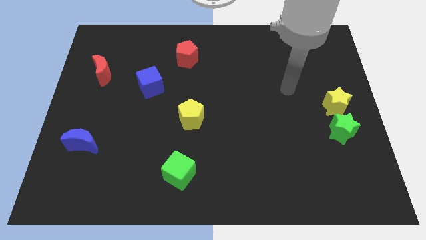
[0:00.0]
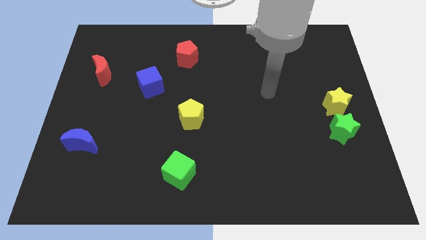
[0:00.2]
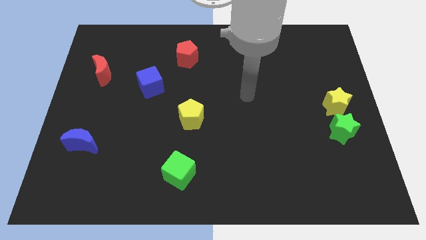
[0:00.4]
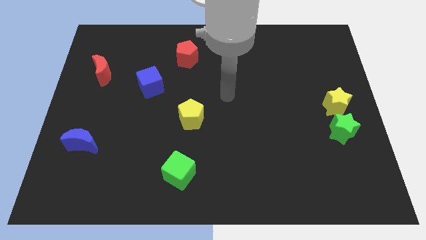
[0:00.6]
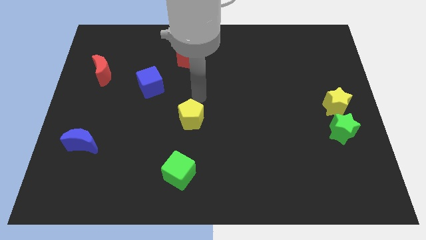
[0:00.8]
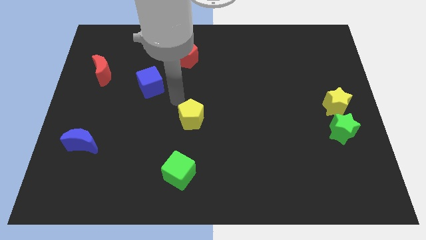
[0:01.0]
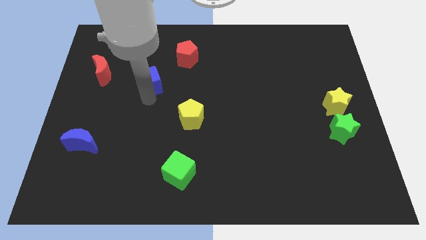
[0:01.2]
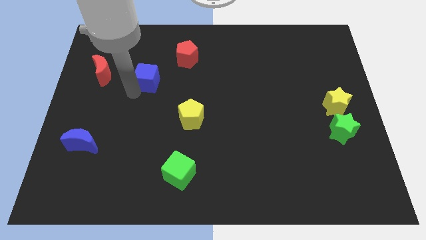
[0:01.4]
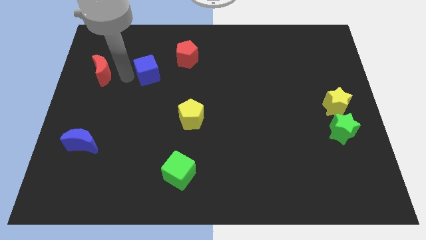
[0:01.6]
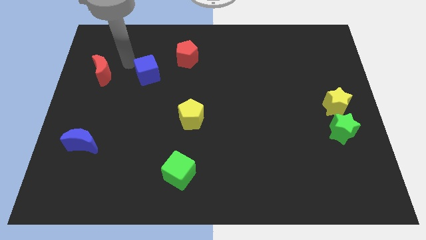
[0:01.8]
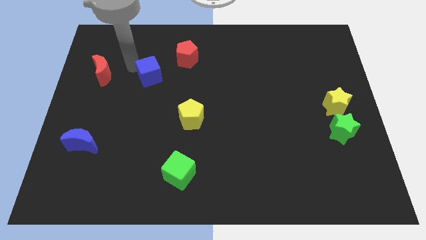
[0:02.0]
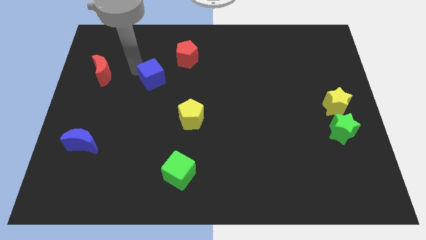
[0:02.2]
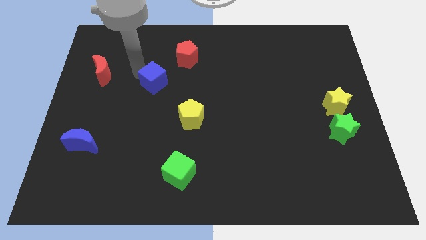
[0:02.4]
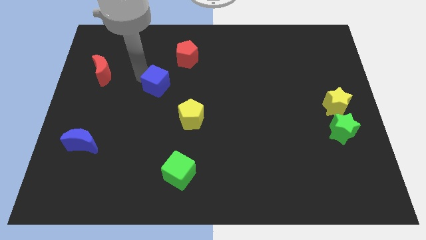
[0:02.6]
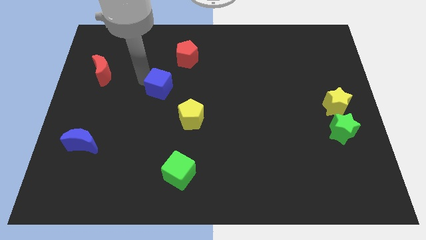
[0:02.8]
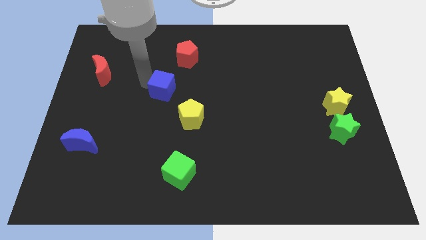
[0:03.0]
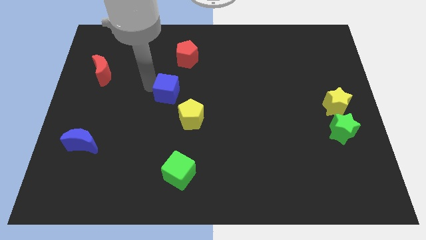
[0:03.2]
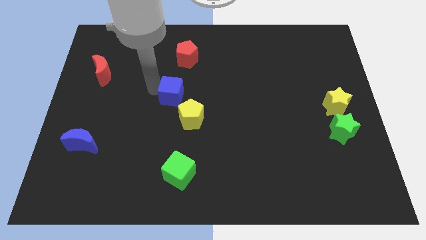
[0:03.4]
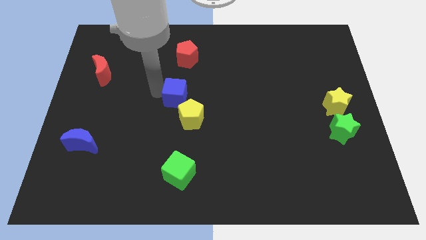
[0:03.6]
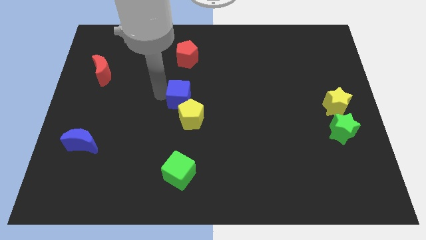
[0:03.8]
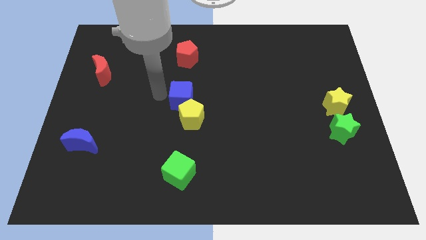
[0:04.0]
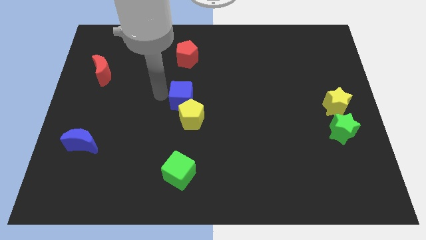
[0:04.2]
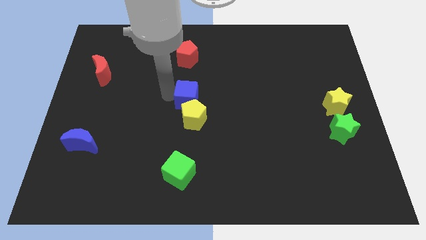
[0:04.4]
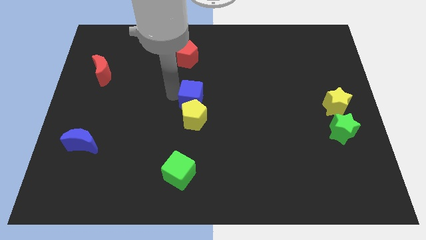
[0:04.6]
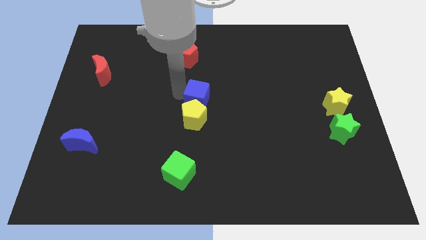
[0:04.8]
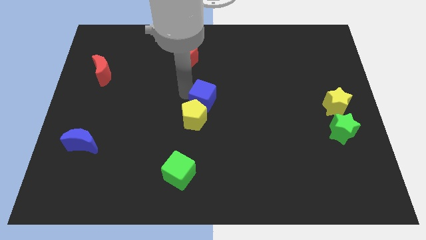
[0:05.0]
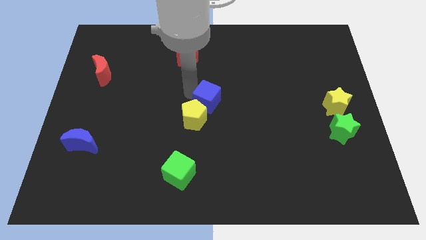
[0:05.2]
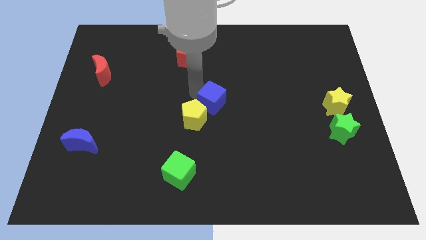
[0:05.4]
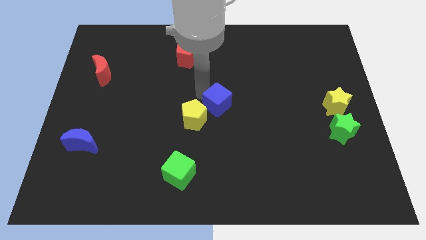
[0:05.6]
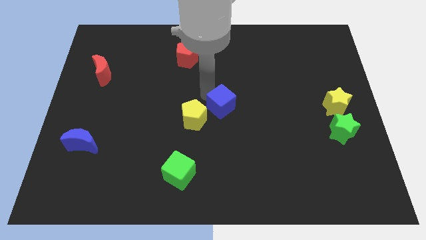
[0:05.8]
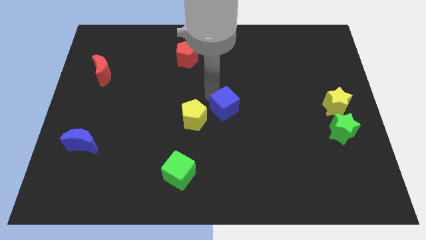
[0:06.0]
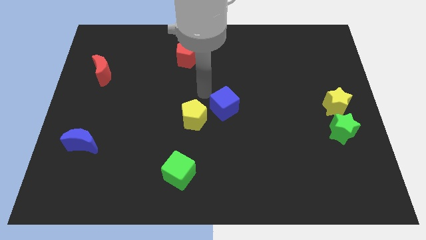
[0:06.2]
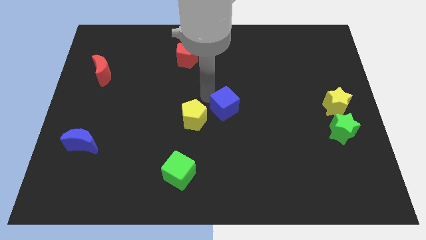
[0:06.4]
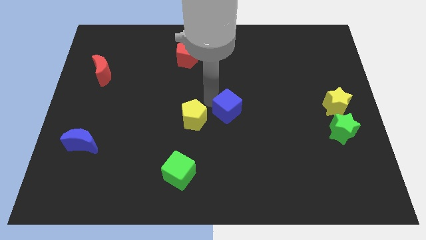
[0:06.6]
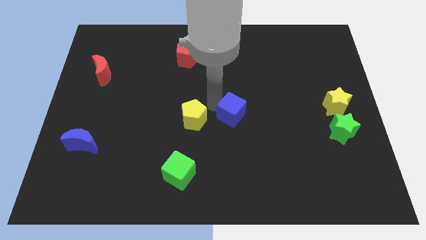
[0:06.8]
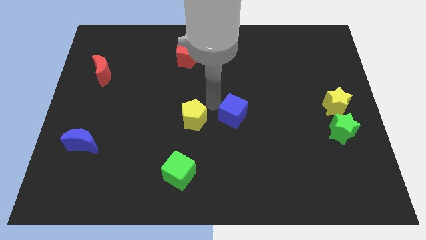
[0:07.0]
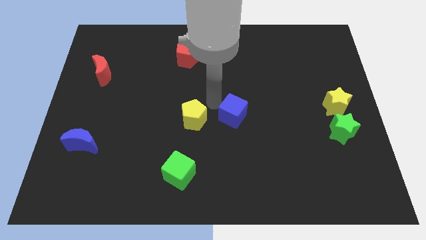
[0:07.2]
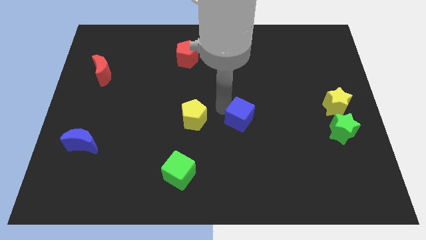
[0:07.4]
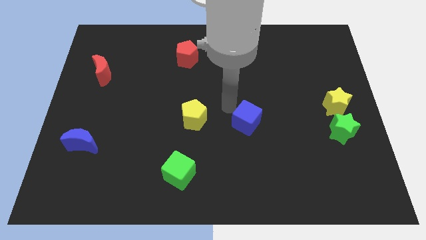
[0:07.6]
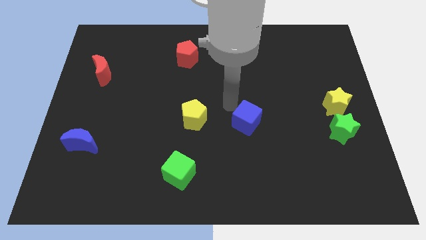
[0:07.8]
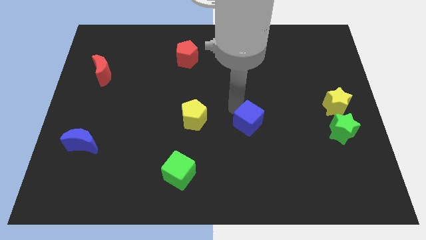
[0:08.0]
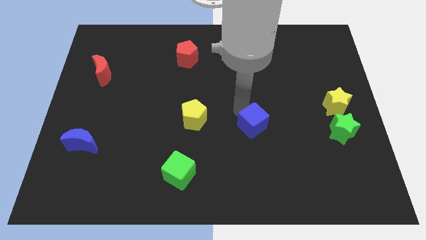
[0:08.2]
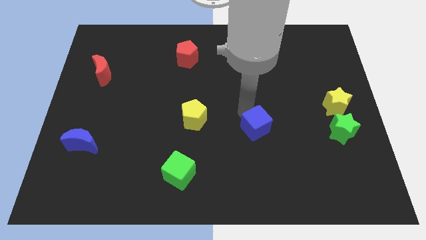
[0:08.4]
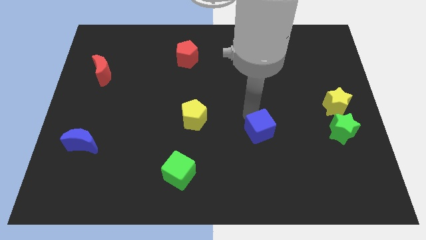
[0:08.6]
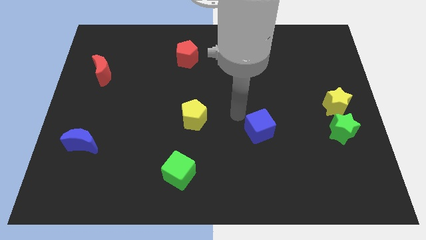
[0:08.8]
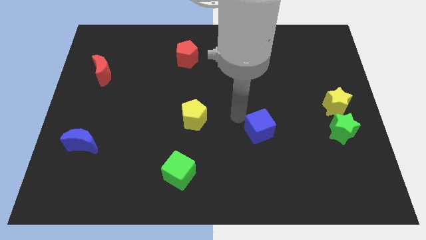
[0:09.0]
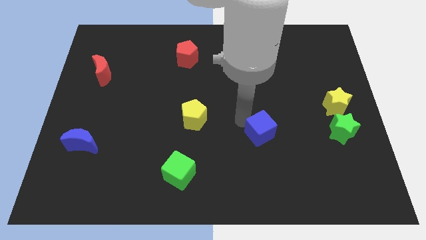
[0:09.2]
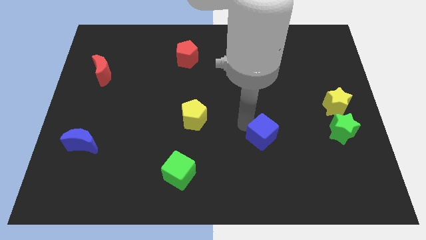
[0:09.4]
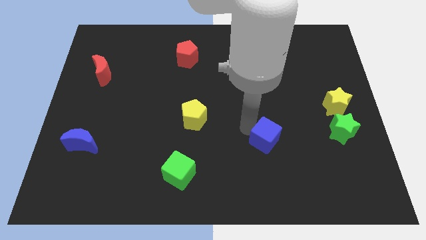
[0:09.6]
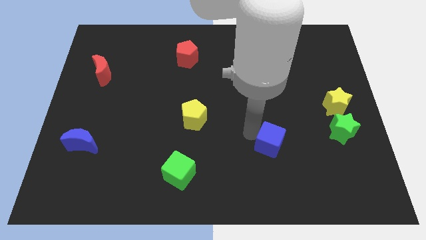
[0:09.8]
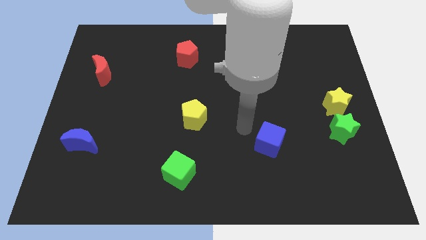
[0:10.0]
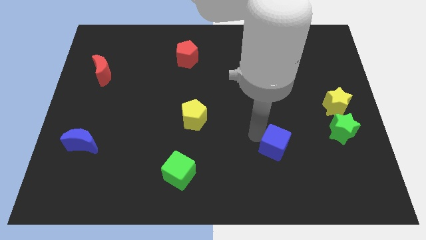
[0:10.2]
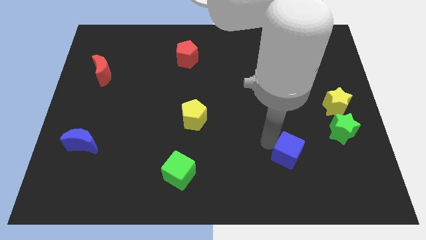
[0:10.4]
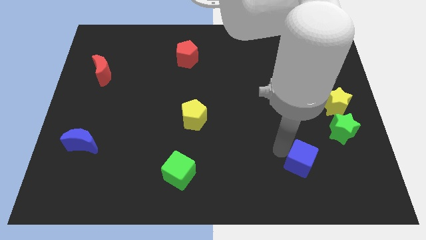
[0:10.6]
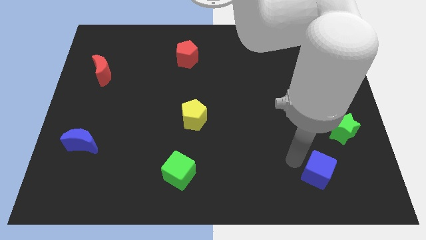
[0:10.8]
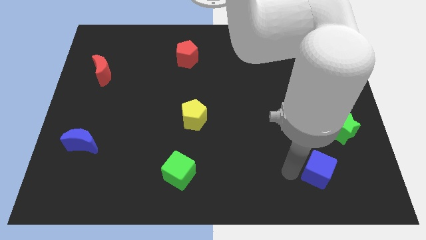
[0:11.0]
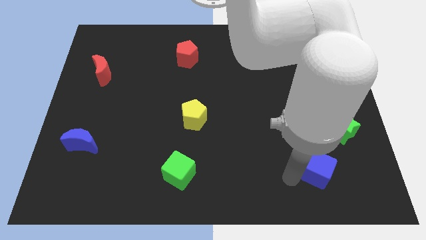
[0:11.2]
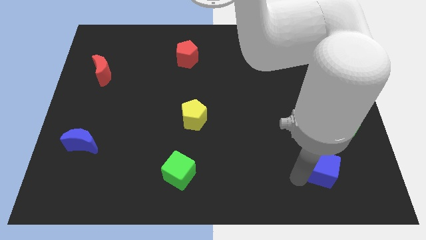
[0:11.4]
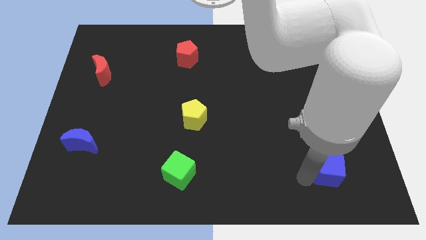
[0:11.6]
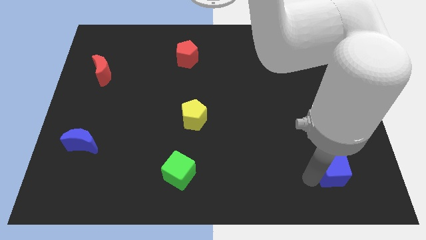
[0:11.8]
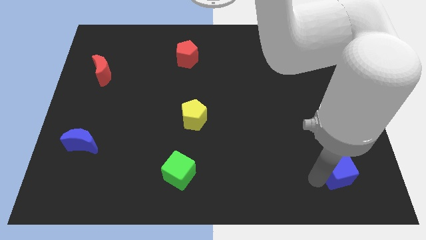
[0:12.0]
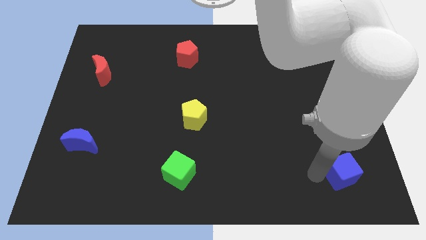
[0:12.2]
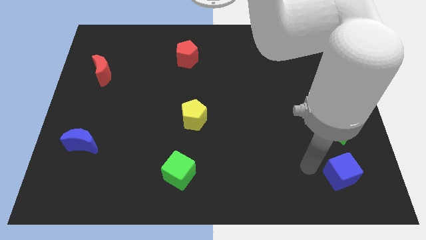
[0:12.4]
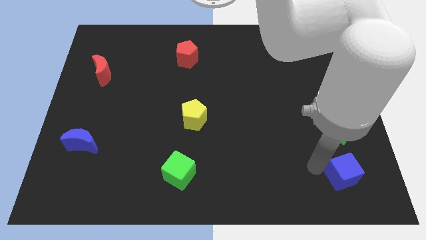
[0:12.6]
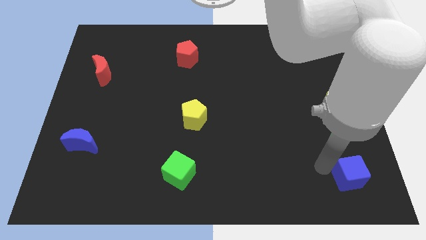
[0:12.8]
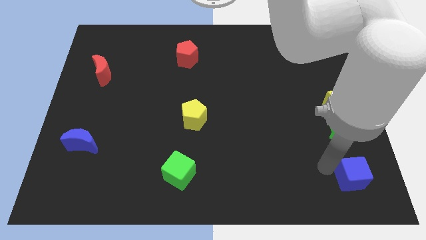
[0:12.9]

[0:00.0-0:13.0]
move the blue cube to the bottom right of the board
